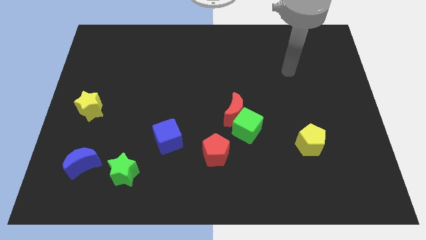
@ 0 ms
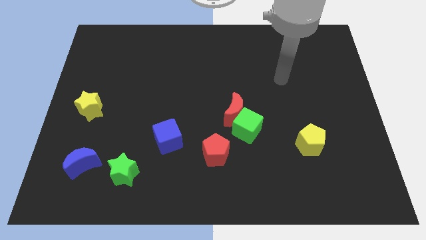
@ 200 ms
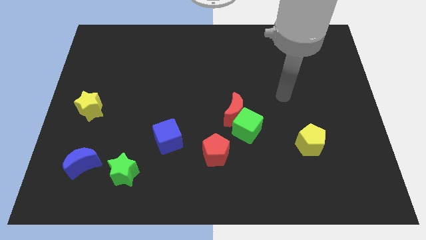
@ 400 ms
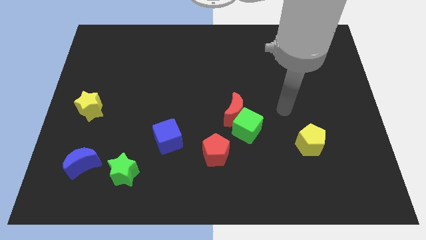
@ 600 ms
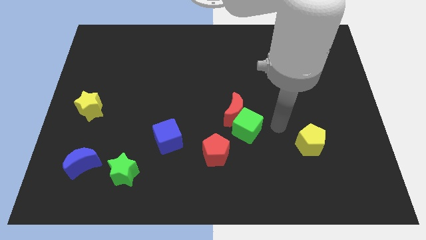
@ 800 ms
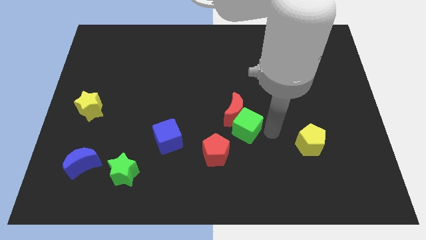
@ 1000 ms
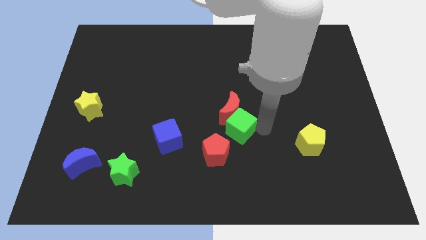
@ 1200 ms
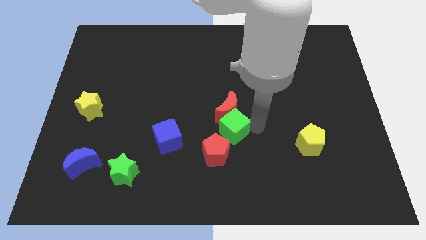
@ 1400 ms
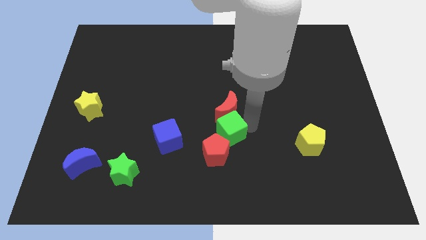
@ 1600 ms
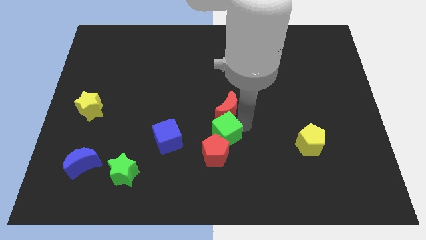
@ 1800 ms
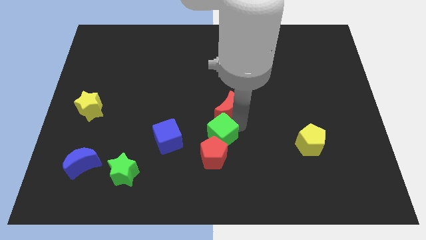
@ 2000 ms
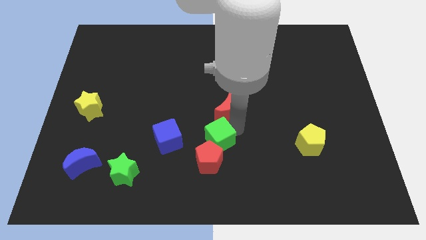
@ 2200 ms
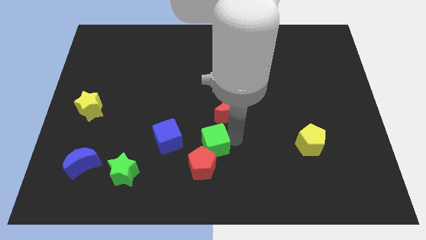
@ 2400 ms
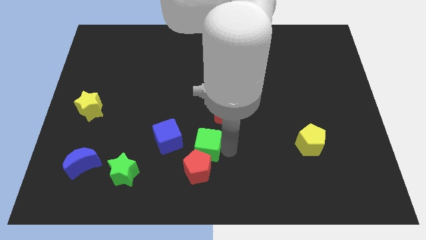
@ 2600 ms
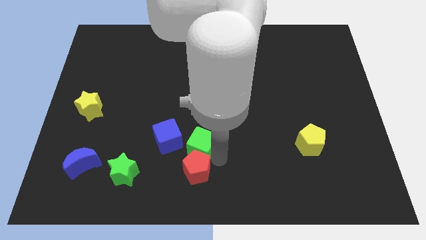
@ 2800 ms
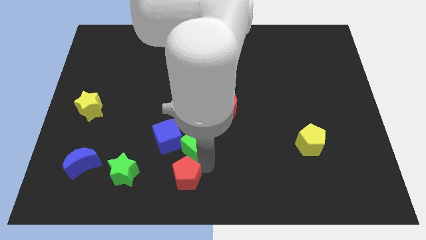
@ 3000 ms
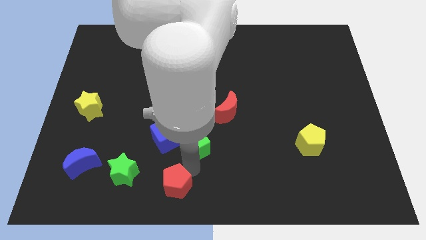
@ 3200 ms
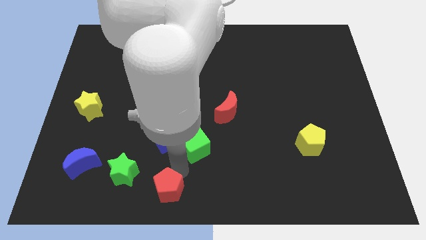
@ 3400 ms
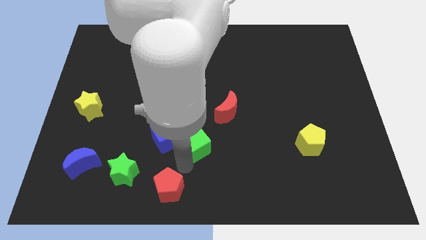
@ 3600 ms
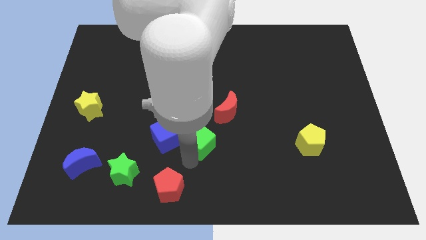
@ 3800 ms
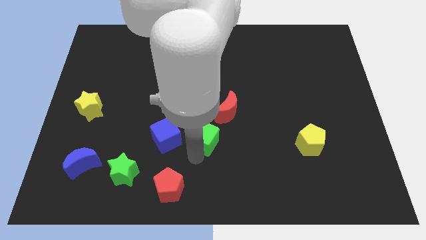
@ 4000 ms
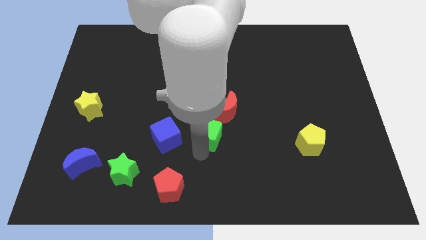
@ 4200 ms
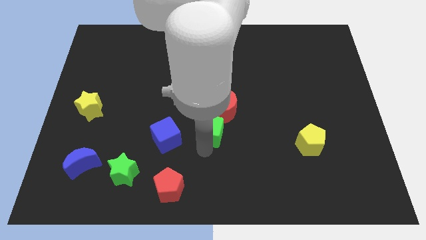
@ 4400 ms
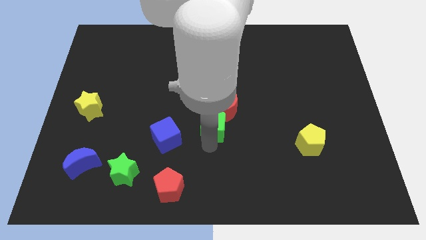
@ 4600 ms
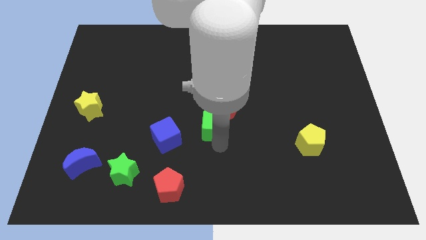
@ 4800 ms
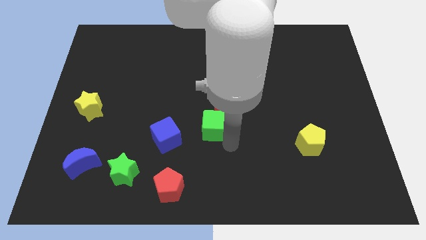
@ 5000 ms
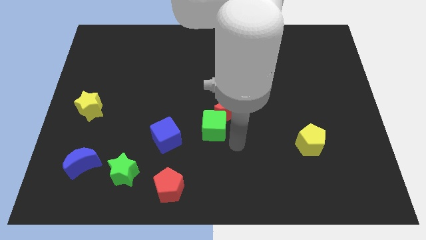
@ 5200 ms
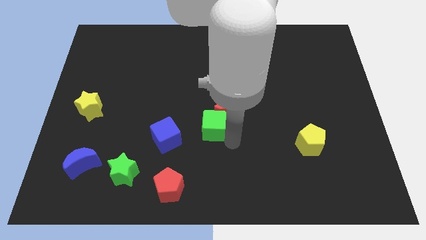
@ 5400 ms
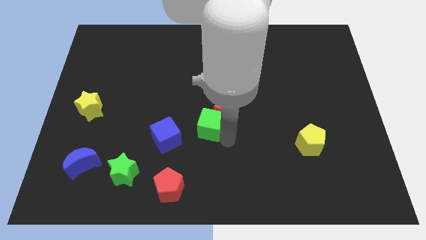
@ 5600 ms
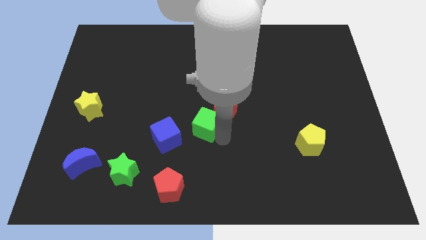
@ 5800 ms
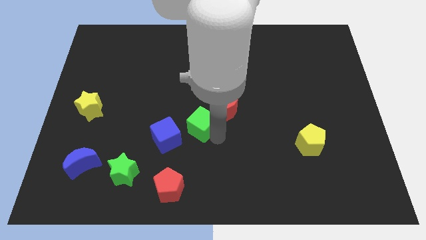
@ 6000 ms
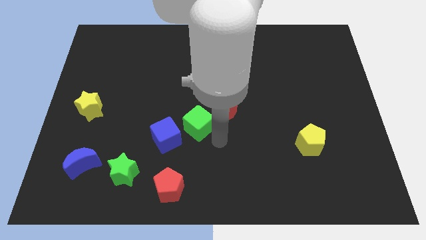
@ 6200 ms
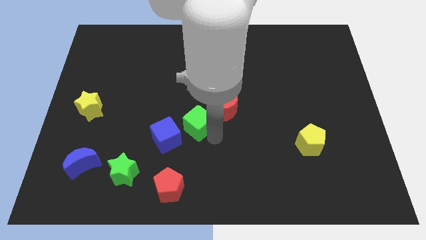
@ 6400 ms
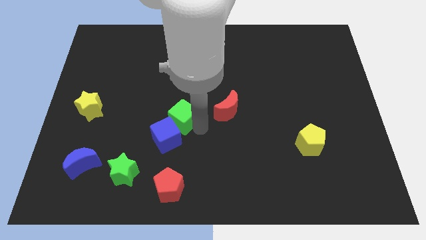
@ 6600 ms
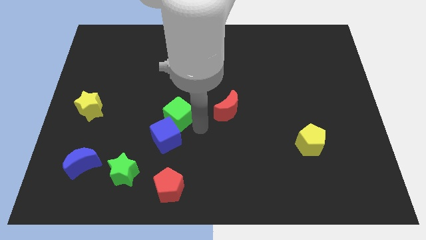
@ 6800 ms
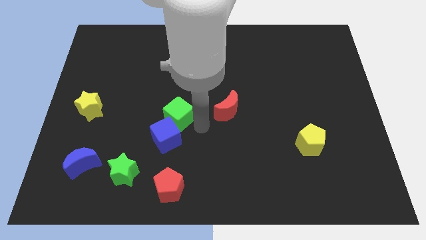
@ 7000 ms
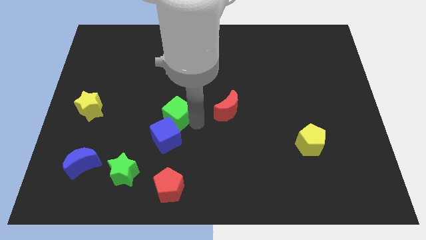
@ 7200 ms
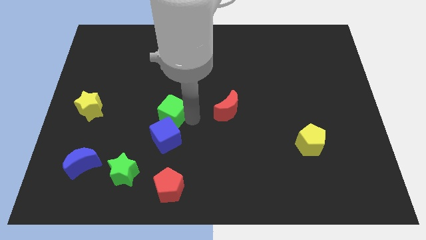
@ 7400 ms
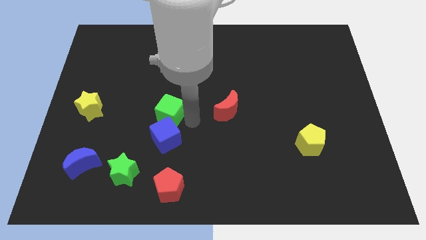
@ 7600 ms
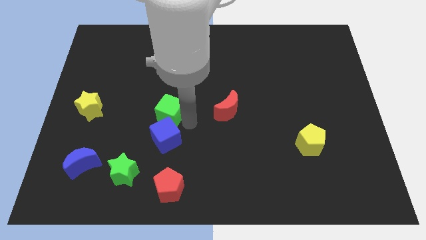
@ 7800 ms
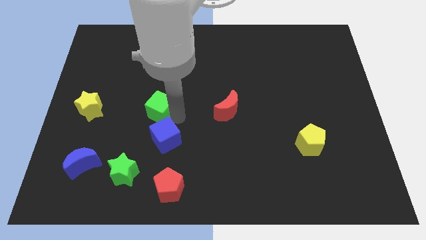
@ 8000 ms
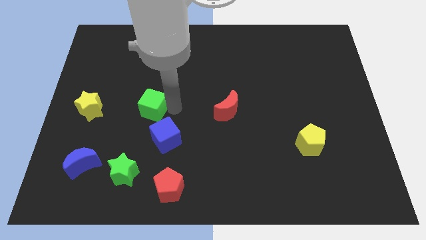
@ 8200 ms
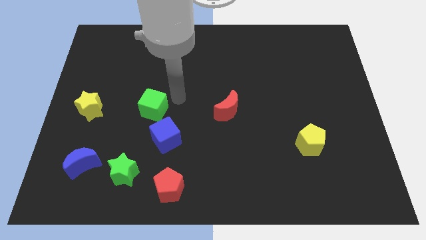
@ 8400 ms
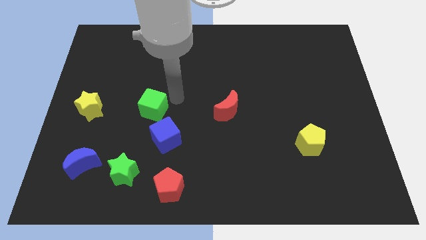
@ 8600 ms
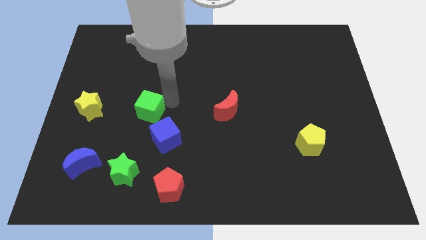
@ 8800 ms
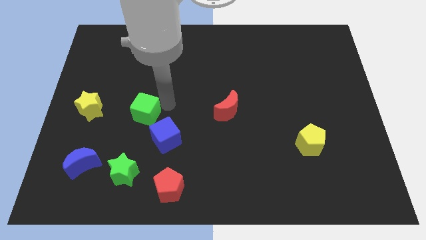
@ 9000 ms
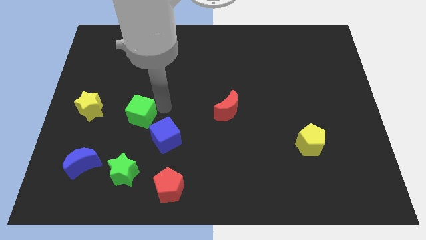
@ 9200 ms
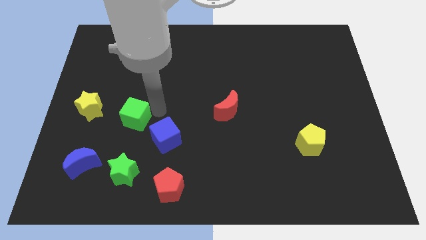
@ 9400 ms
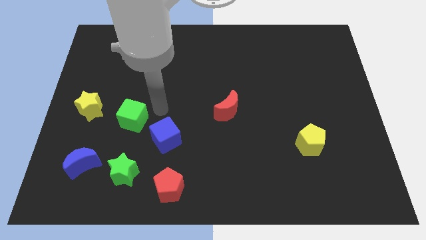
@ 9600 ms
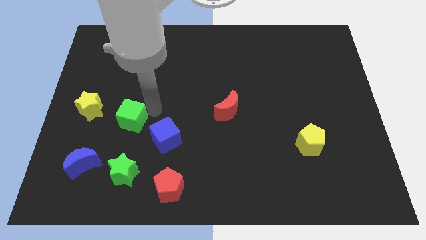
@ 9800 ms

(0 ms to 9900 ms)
push the green cube to the bottom right side of the yellow star

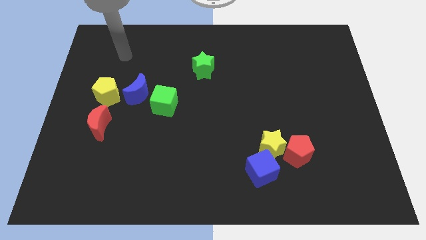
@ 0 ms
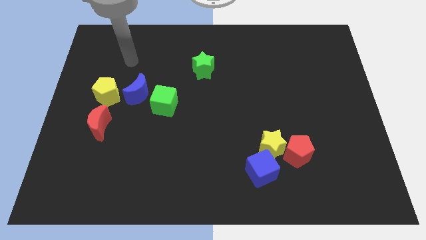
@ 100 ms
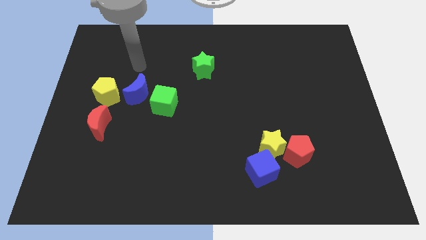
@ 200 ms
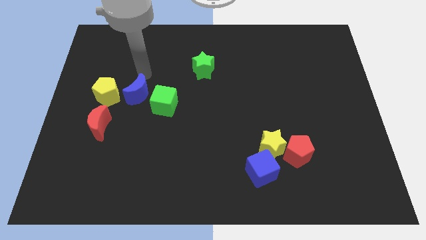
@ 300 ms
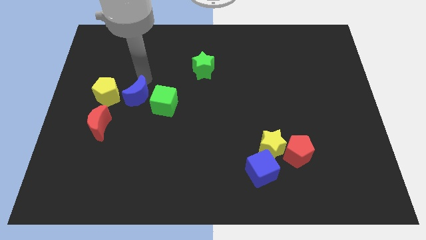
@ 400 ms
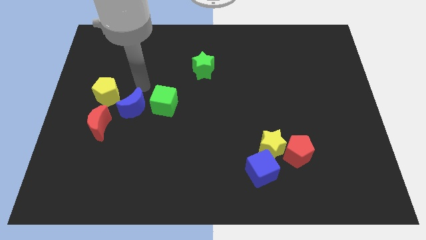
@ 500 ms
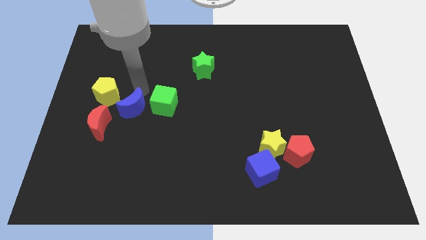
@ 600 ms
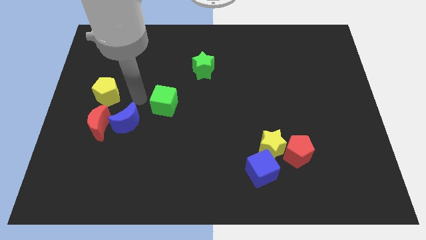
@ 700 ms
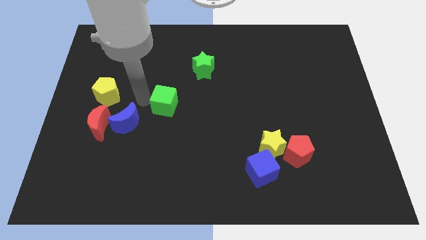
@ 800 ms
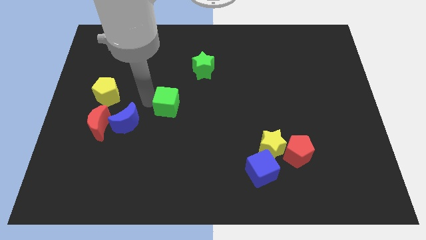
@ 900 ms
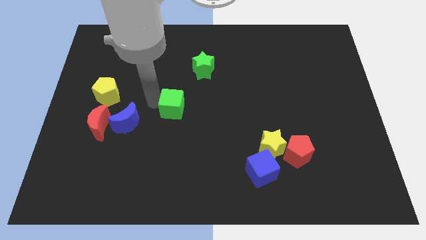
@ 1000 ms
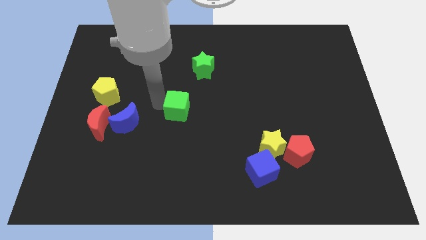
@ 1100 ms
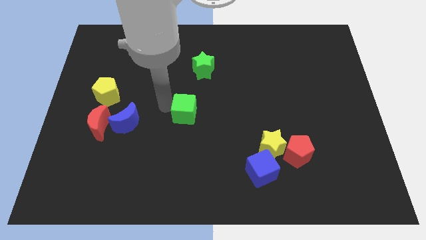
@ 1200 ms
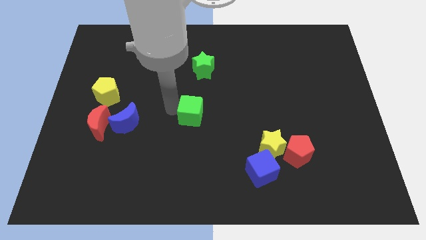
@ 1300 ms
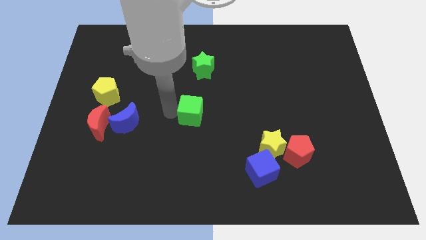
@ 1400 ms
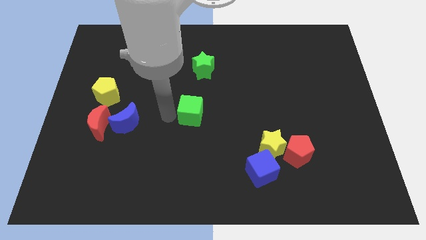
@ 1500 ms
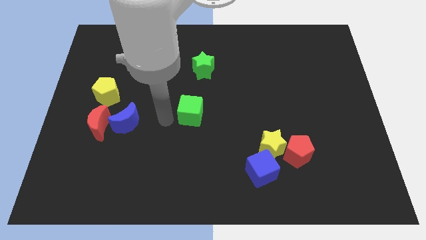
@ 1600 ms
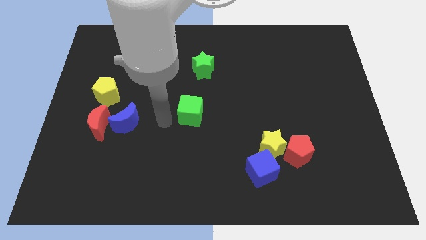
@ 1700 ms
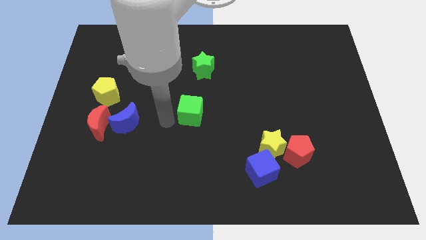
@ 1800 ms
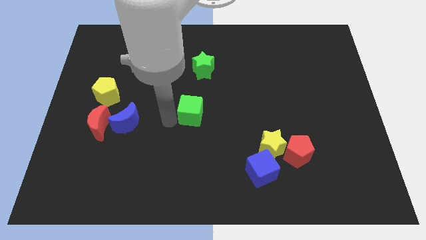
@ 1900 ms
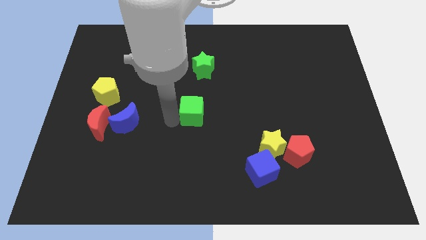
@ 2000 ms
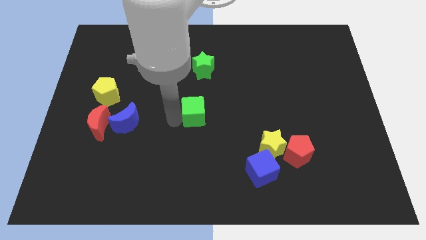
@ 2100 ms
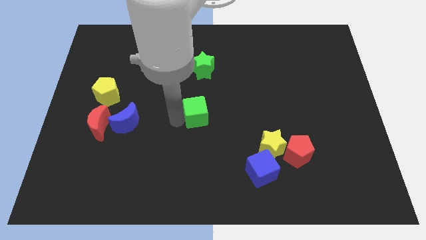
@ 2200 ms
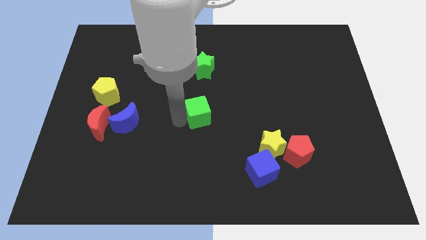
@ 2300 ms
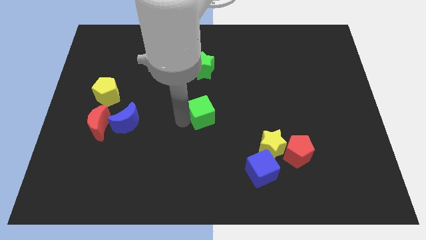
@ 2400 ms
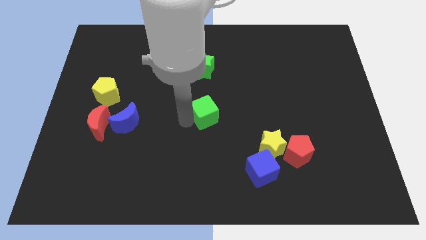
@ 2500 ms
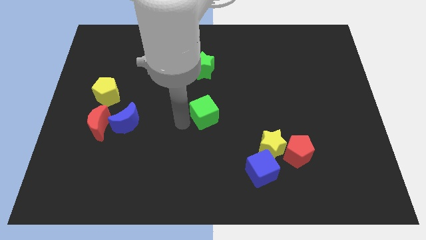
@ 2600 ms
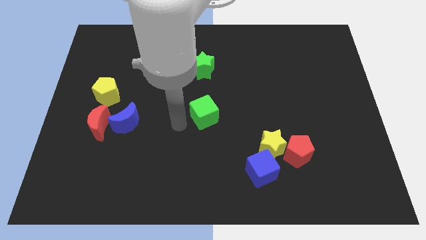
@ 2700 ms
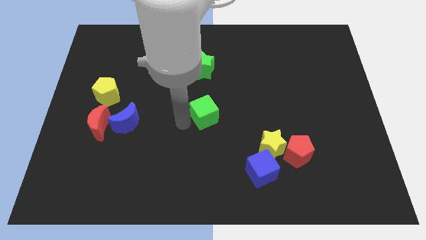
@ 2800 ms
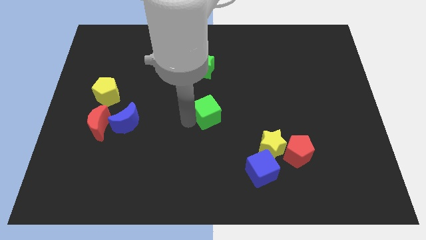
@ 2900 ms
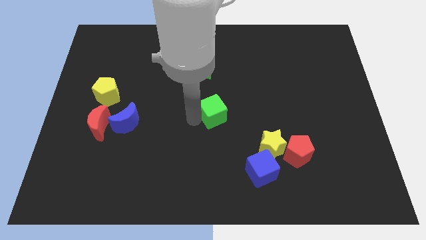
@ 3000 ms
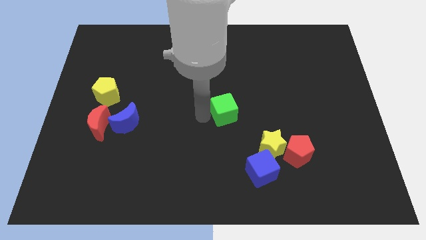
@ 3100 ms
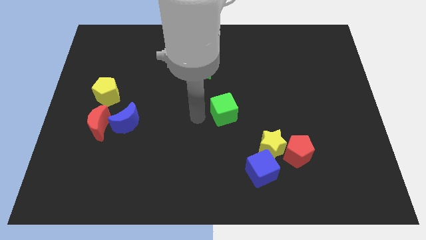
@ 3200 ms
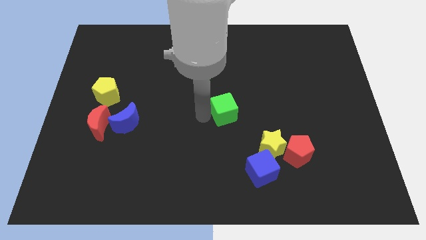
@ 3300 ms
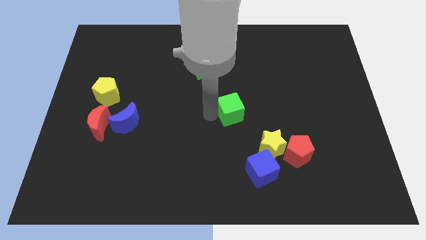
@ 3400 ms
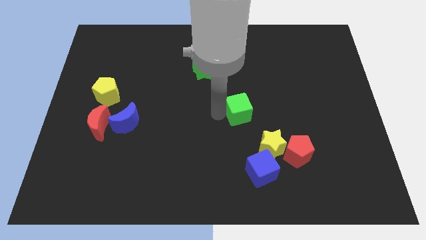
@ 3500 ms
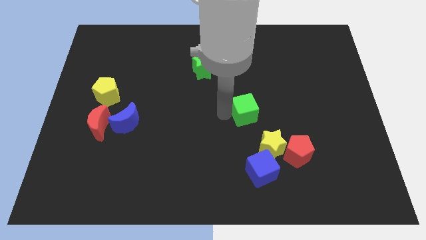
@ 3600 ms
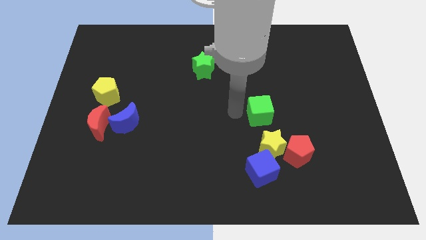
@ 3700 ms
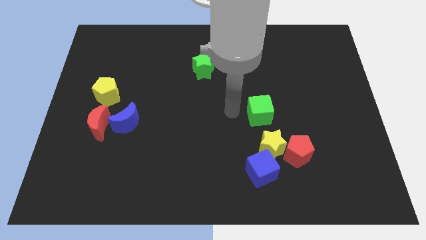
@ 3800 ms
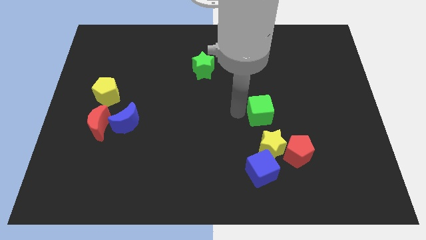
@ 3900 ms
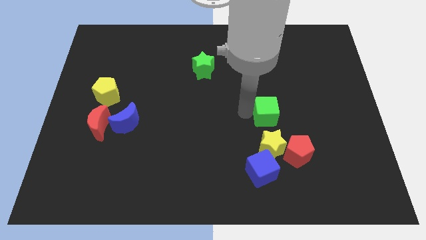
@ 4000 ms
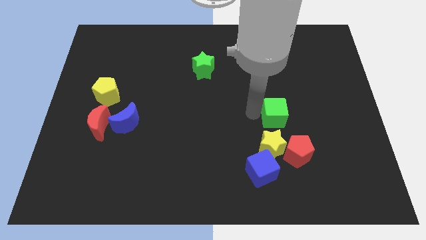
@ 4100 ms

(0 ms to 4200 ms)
push the green cube to the top side of the red pentagon
